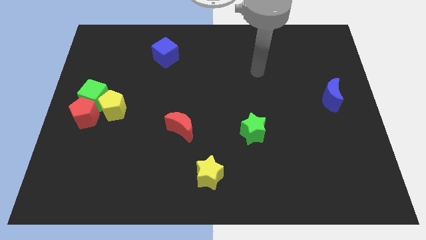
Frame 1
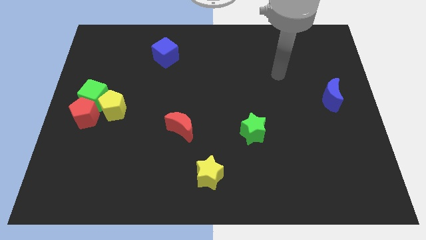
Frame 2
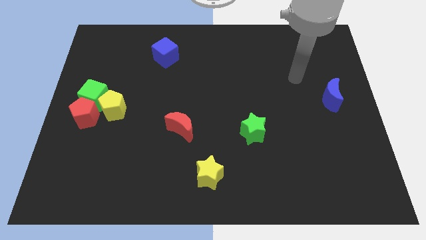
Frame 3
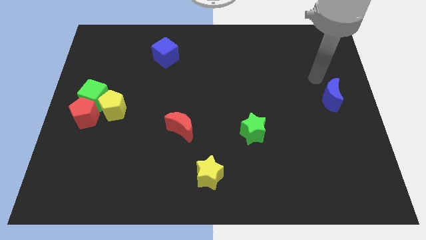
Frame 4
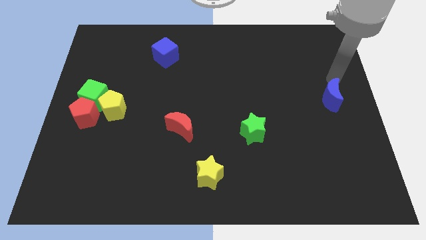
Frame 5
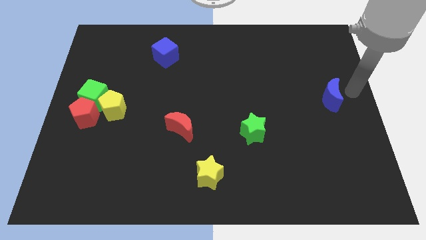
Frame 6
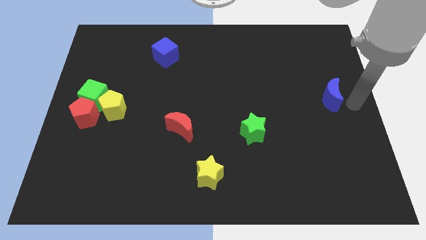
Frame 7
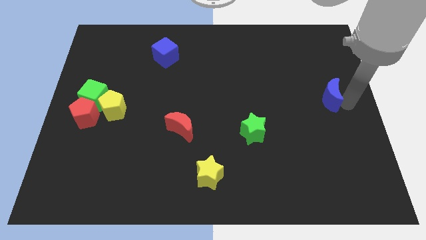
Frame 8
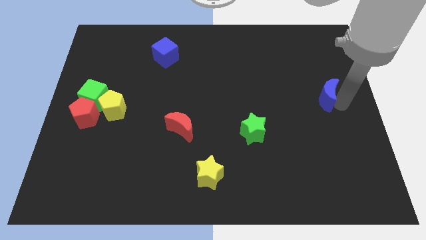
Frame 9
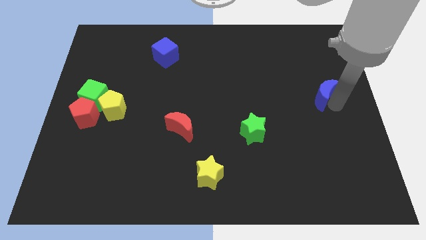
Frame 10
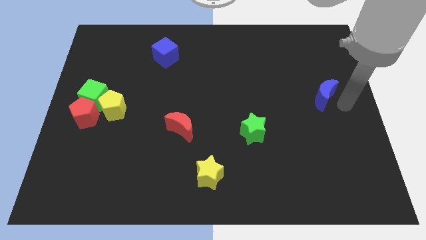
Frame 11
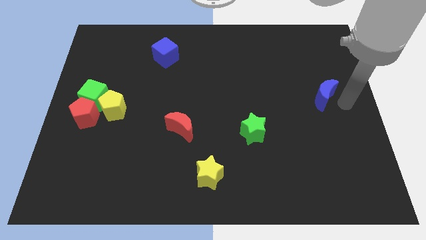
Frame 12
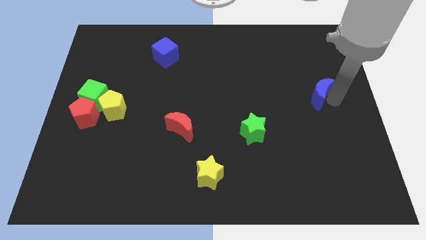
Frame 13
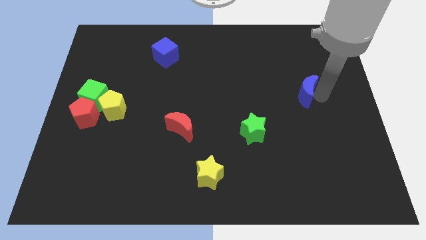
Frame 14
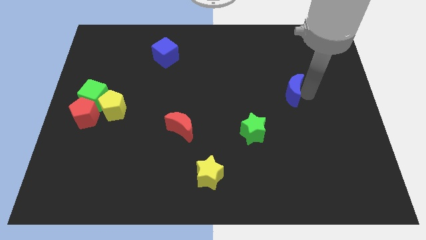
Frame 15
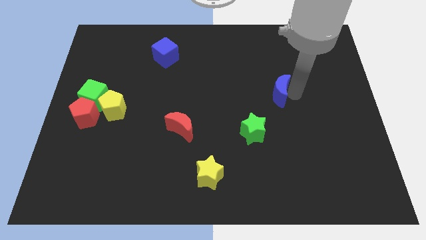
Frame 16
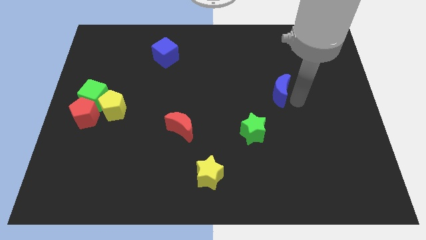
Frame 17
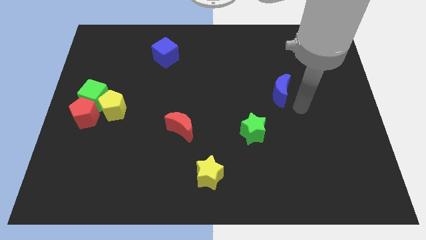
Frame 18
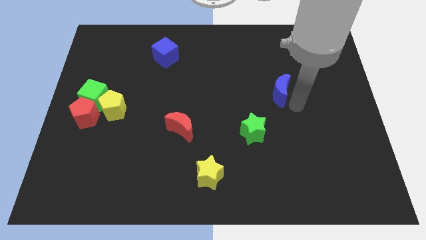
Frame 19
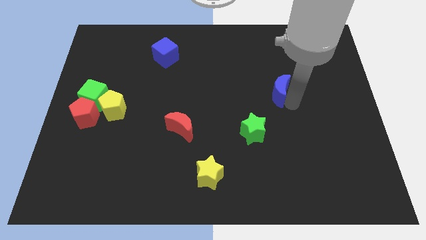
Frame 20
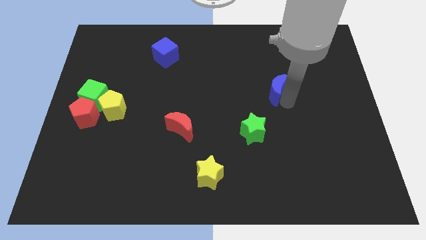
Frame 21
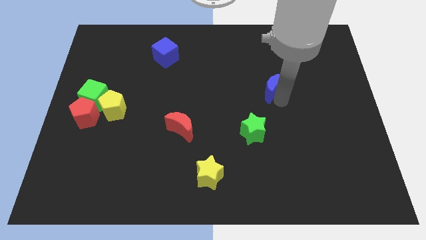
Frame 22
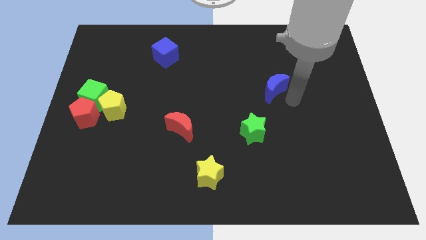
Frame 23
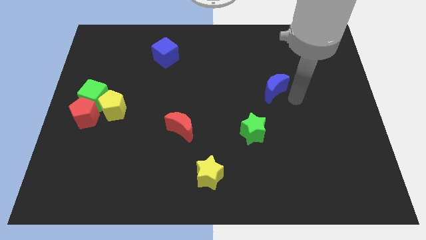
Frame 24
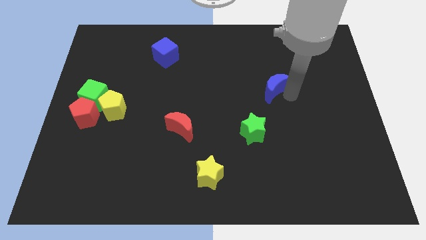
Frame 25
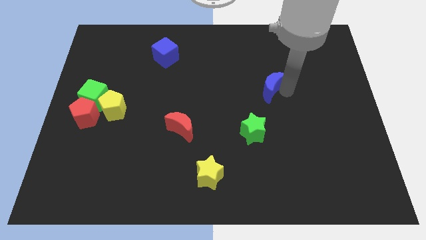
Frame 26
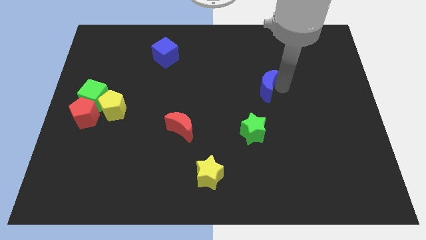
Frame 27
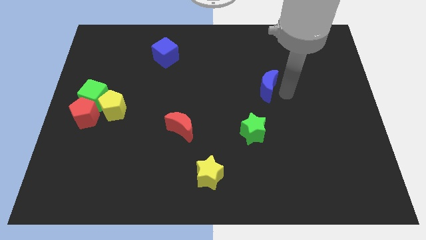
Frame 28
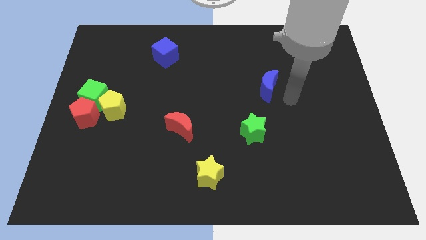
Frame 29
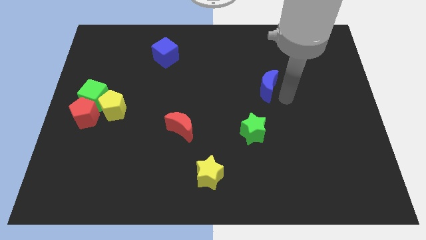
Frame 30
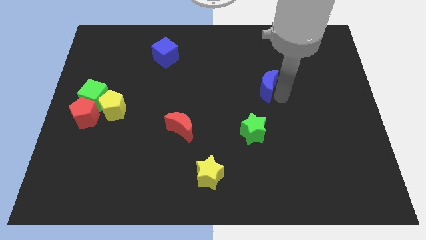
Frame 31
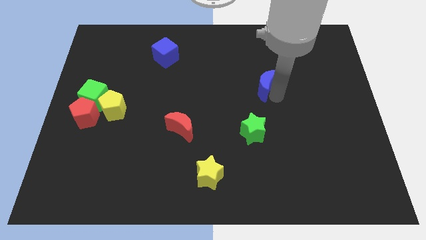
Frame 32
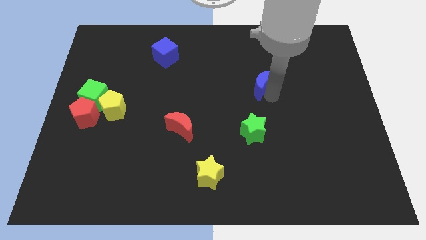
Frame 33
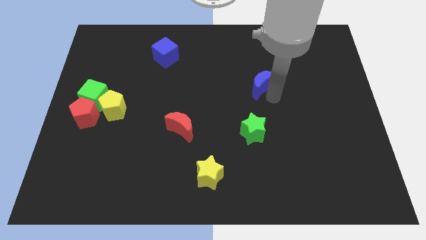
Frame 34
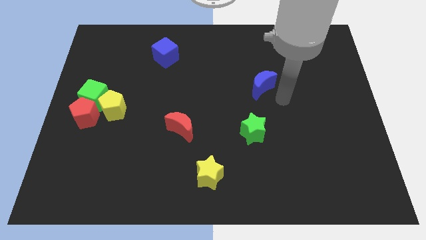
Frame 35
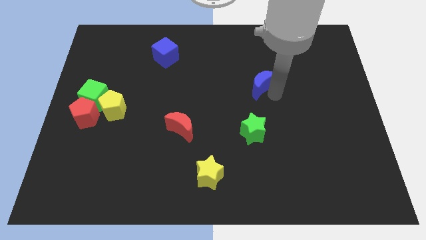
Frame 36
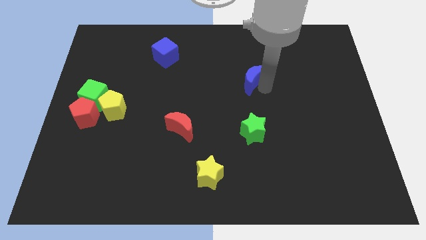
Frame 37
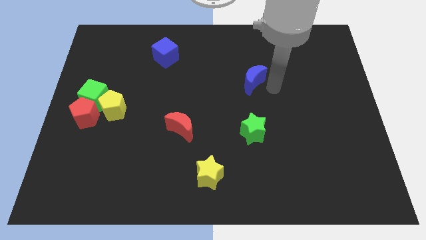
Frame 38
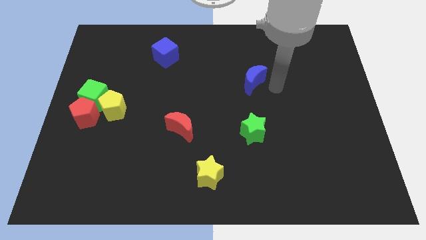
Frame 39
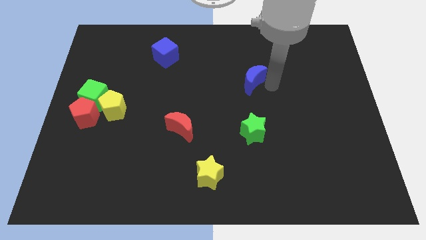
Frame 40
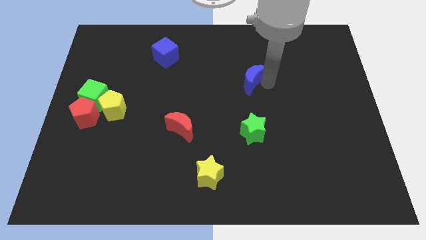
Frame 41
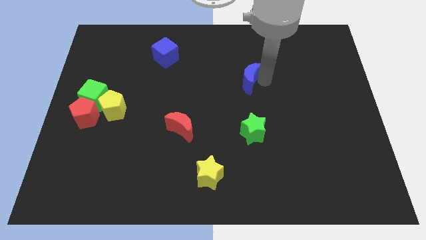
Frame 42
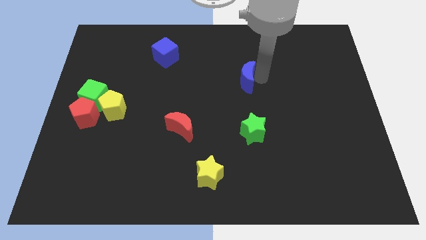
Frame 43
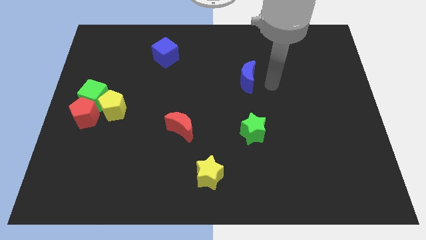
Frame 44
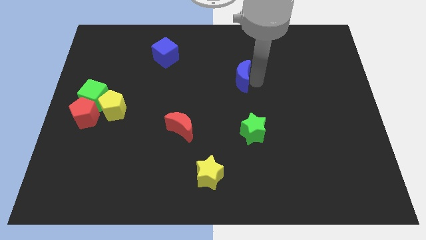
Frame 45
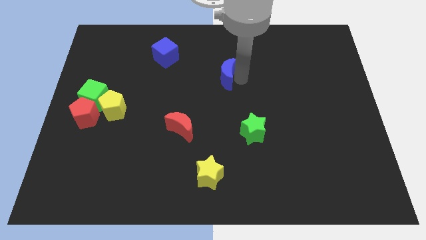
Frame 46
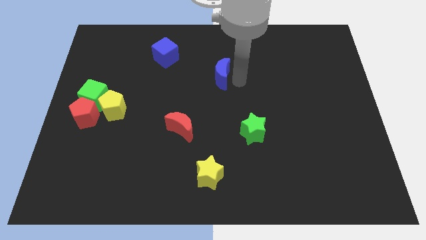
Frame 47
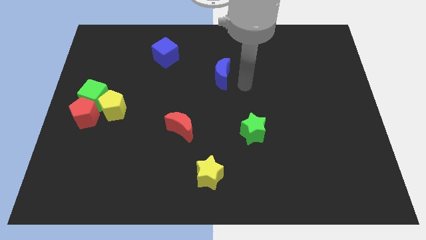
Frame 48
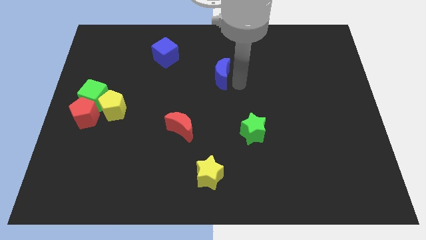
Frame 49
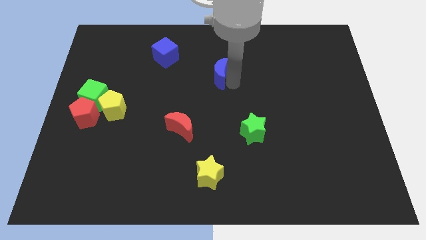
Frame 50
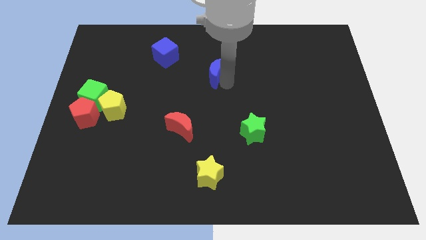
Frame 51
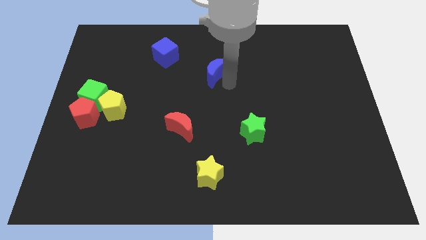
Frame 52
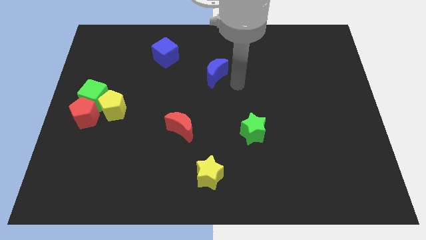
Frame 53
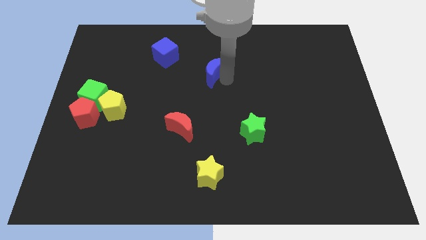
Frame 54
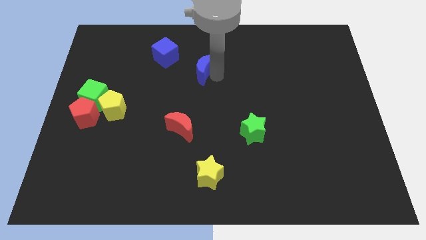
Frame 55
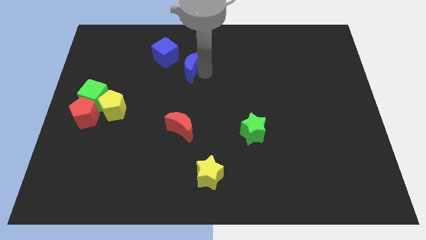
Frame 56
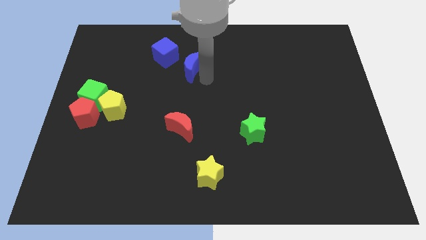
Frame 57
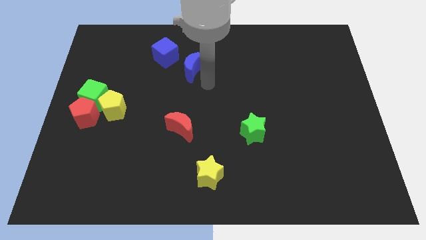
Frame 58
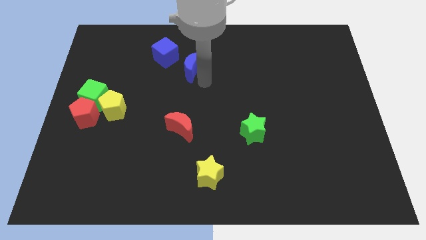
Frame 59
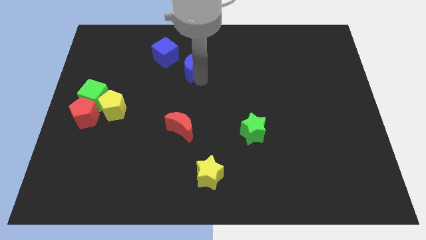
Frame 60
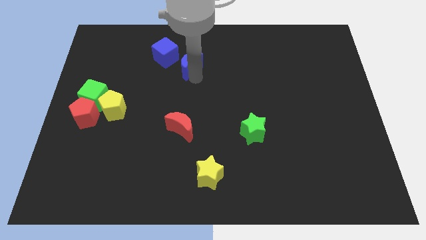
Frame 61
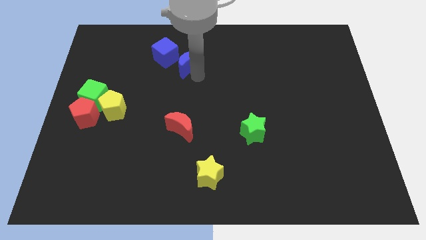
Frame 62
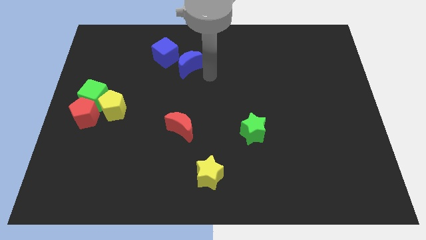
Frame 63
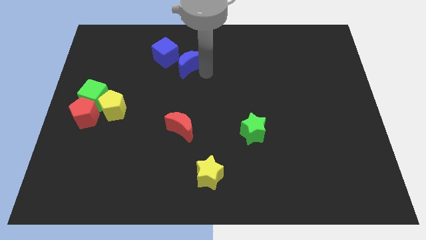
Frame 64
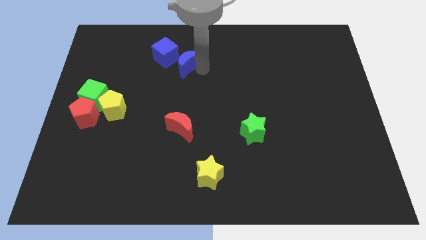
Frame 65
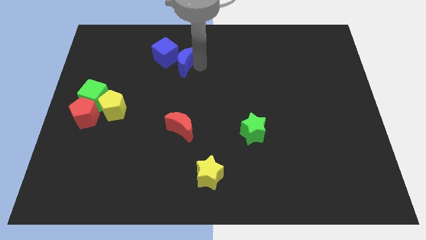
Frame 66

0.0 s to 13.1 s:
push the blue moon to the blue cube
